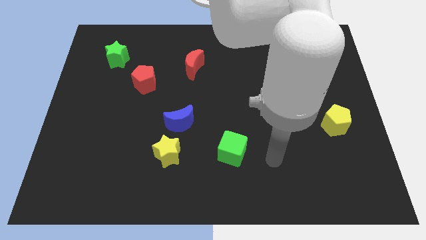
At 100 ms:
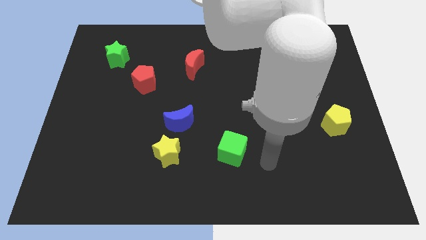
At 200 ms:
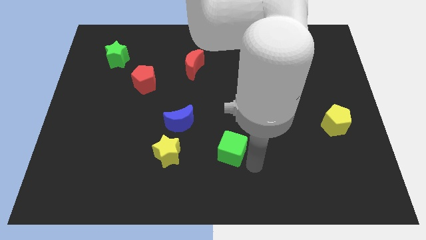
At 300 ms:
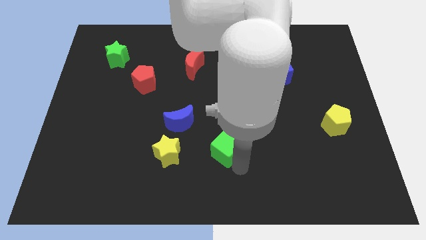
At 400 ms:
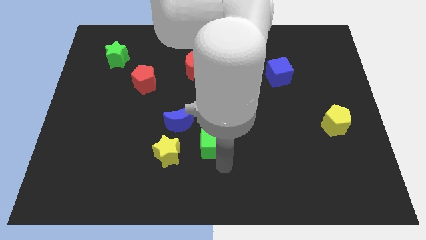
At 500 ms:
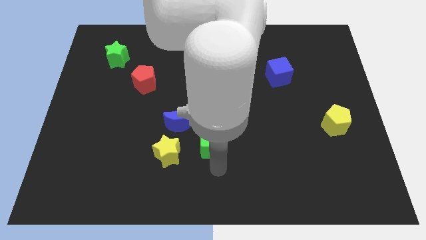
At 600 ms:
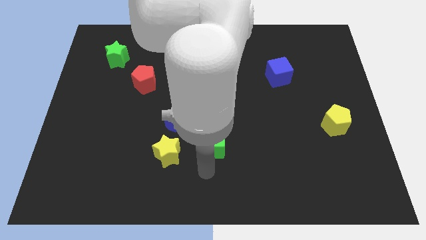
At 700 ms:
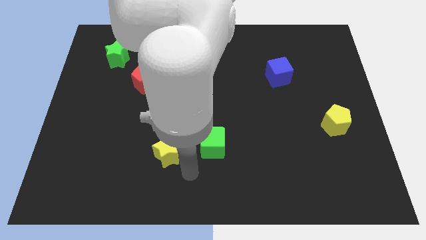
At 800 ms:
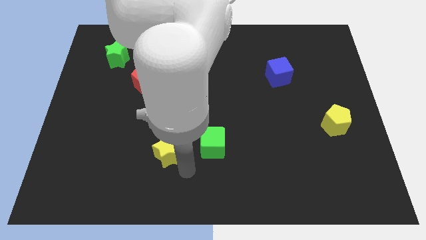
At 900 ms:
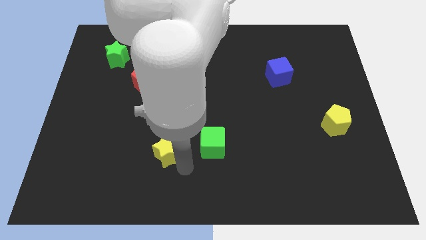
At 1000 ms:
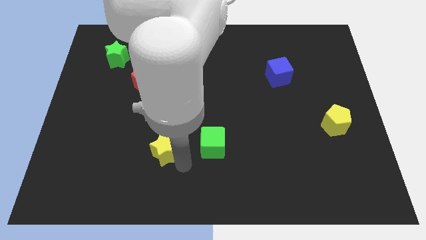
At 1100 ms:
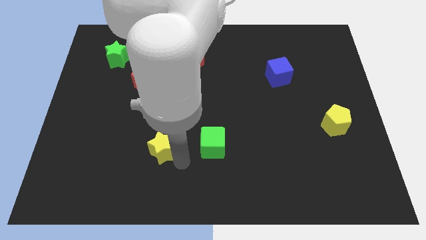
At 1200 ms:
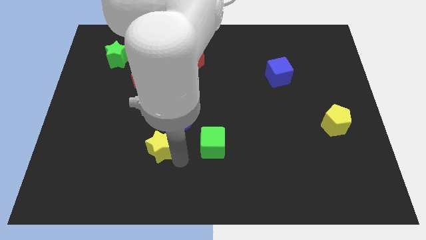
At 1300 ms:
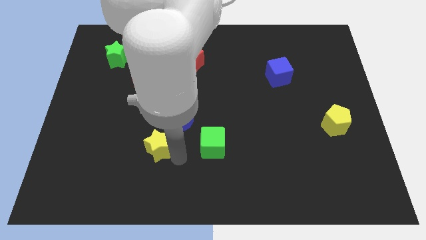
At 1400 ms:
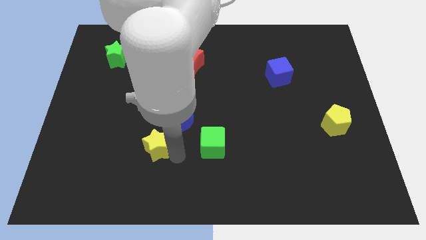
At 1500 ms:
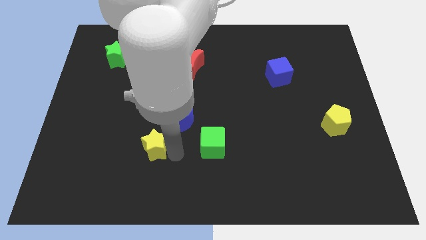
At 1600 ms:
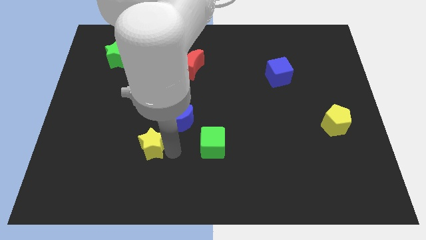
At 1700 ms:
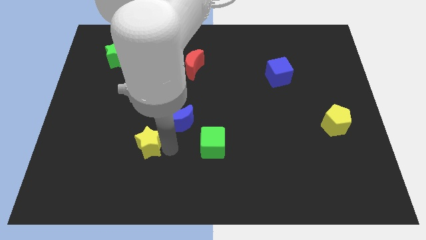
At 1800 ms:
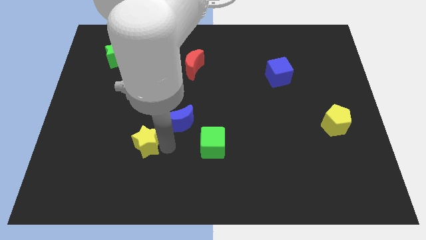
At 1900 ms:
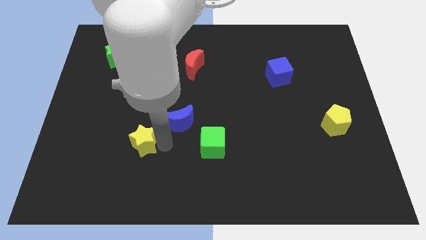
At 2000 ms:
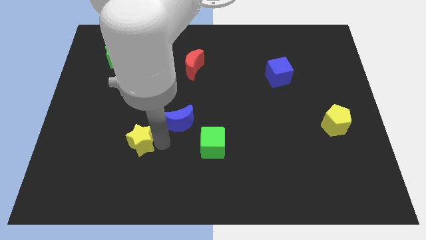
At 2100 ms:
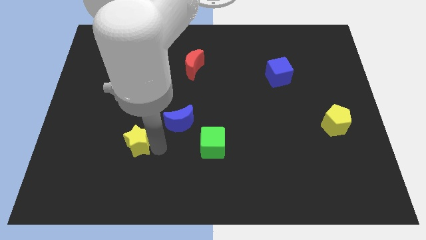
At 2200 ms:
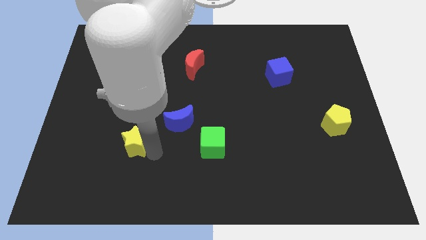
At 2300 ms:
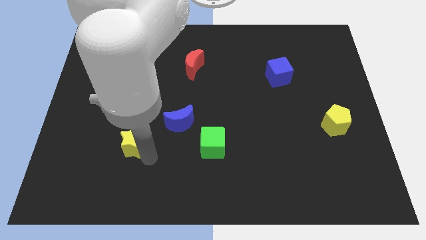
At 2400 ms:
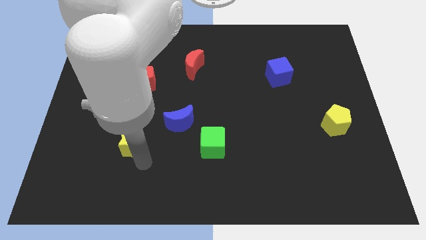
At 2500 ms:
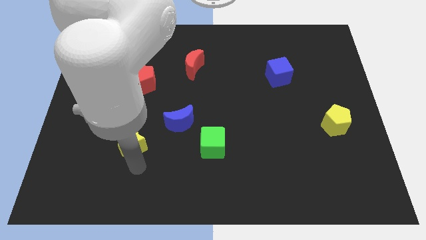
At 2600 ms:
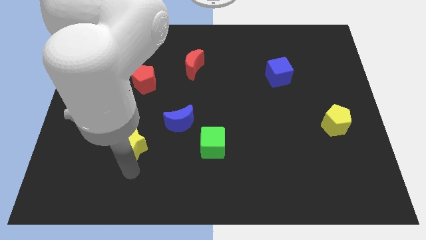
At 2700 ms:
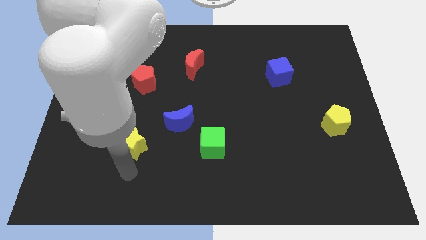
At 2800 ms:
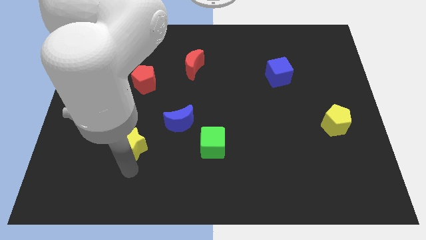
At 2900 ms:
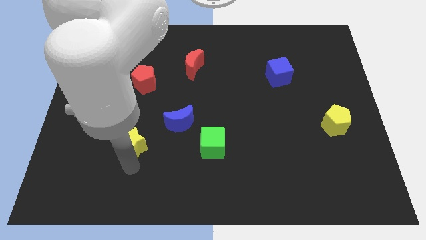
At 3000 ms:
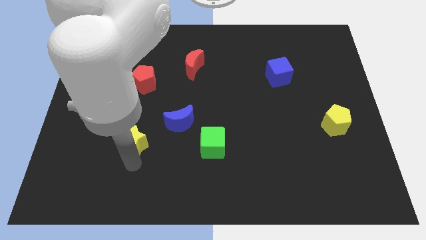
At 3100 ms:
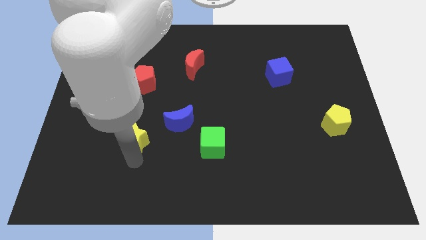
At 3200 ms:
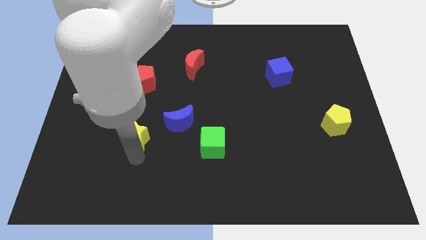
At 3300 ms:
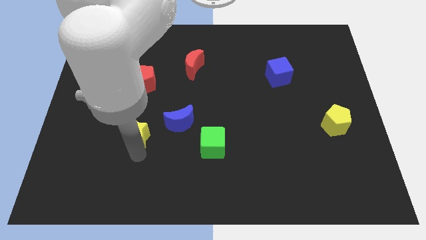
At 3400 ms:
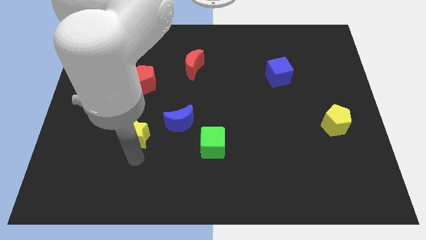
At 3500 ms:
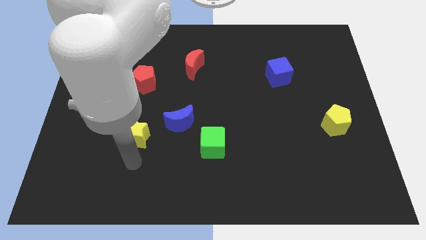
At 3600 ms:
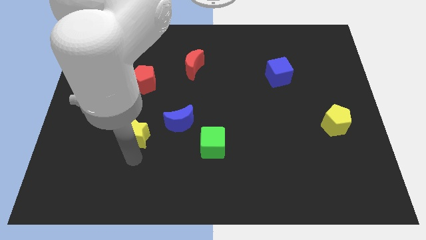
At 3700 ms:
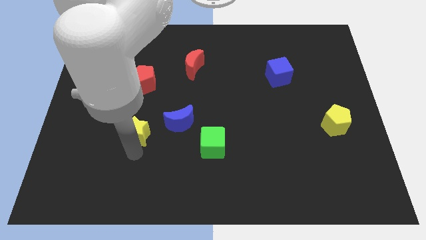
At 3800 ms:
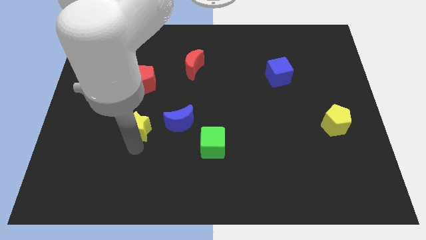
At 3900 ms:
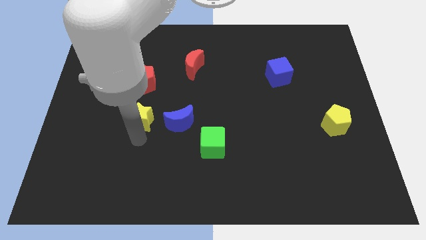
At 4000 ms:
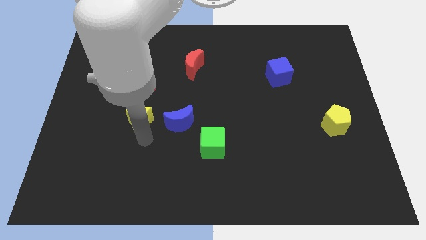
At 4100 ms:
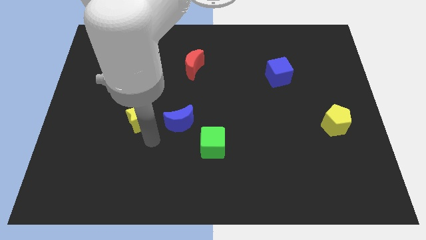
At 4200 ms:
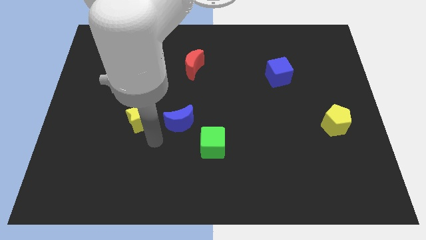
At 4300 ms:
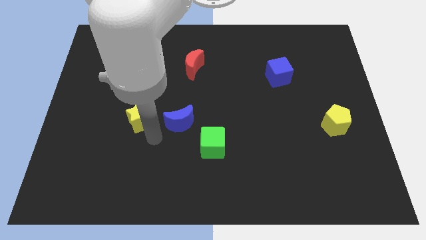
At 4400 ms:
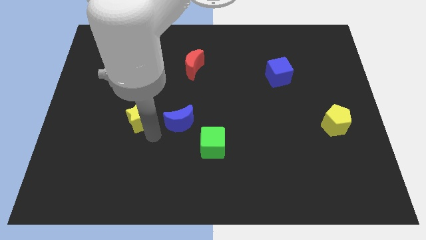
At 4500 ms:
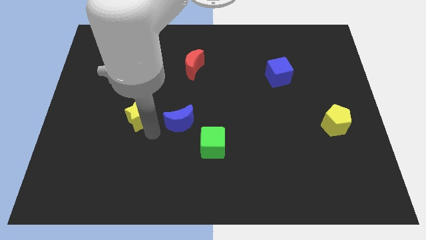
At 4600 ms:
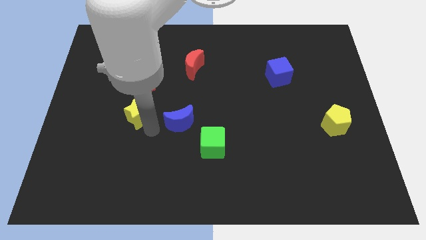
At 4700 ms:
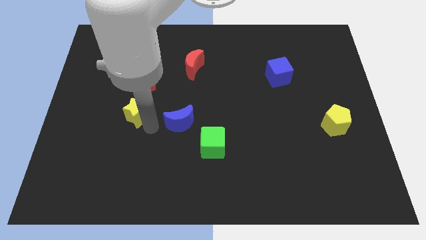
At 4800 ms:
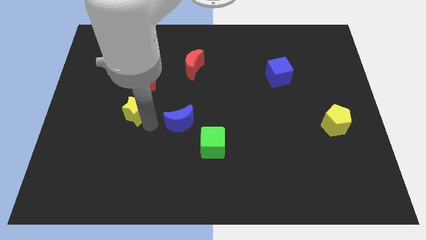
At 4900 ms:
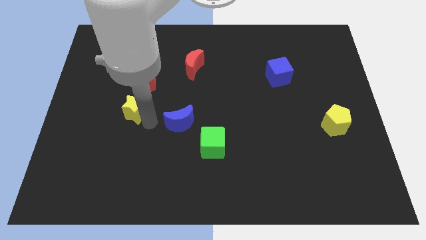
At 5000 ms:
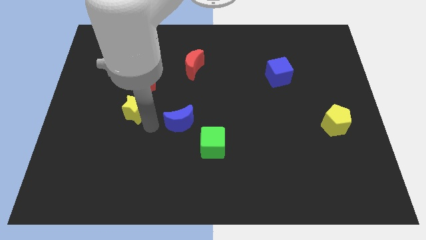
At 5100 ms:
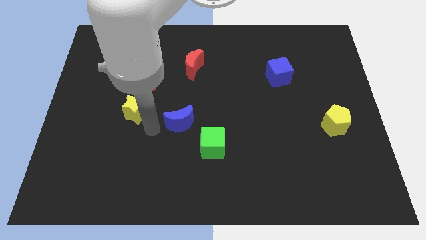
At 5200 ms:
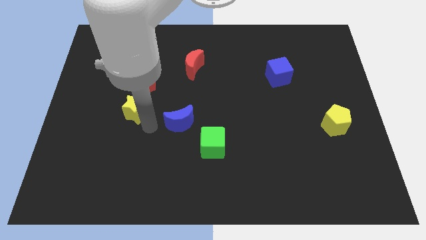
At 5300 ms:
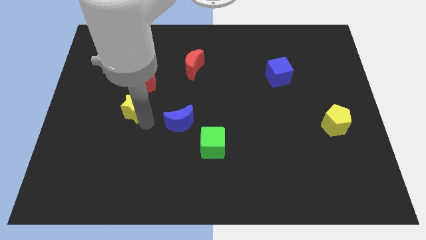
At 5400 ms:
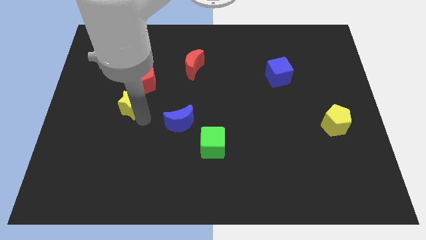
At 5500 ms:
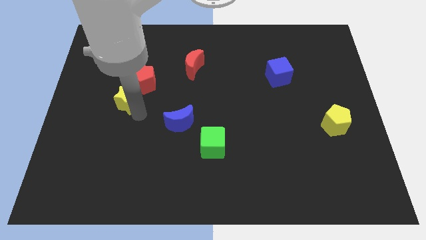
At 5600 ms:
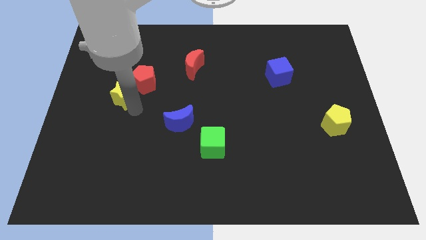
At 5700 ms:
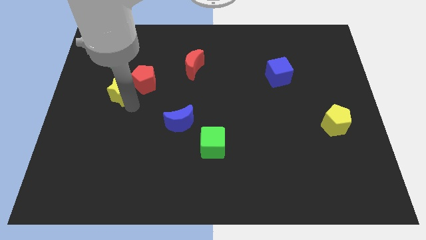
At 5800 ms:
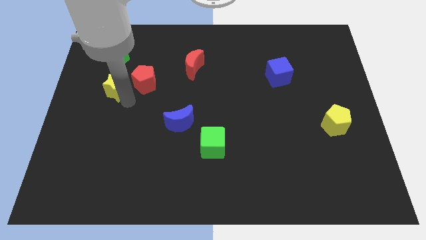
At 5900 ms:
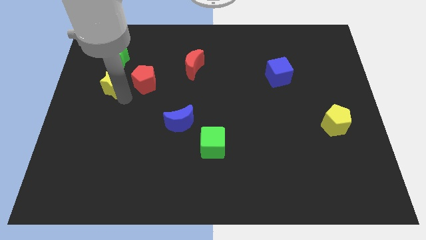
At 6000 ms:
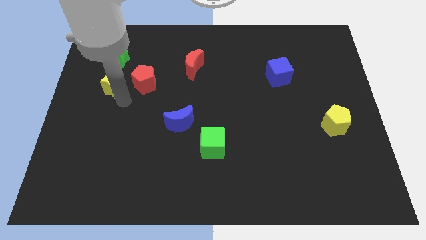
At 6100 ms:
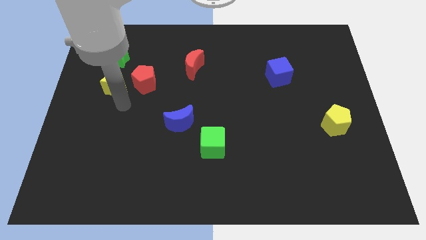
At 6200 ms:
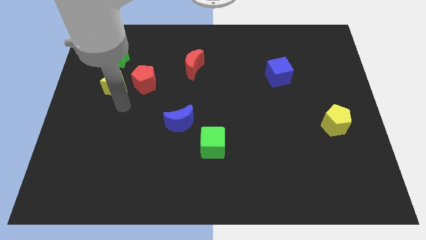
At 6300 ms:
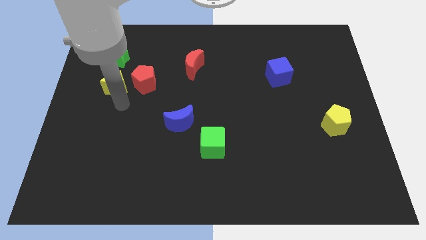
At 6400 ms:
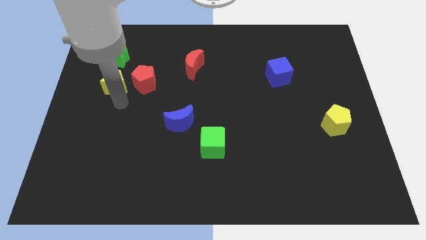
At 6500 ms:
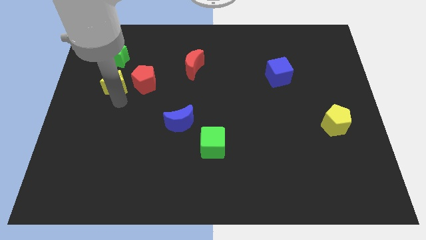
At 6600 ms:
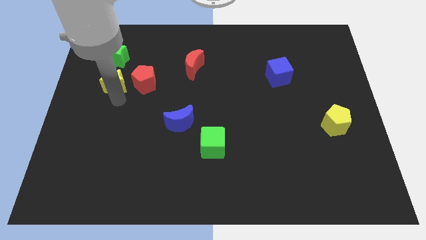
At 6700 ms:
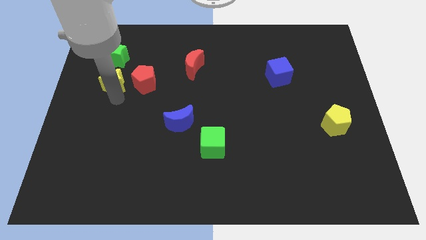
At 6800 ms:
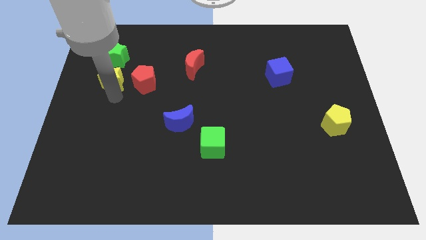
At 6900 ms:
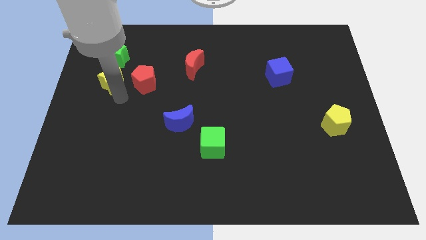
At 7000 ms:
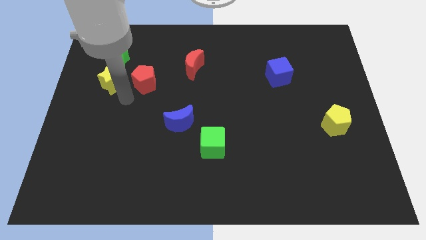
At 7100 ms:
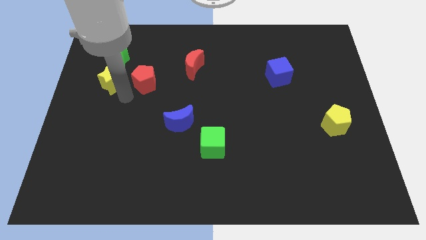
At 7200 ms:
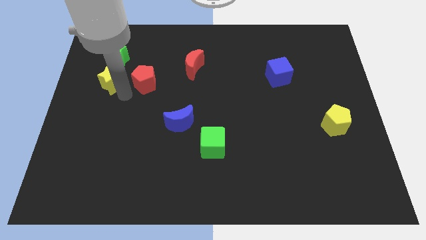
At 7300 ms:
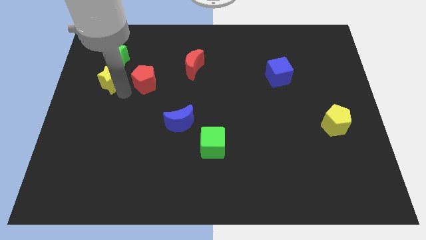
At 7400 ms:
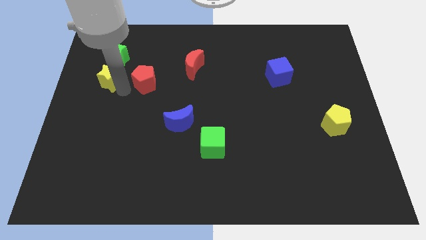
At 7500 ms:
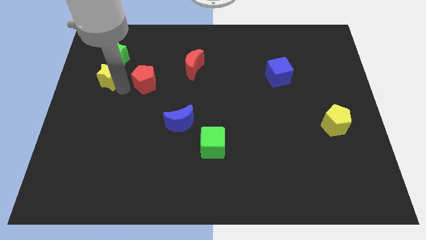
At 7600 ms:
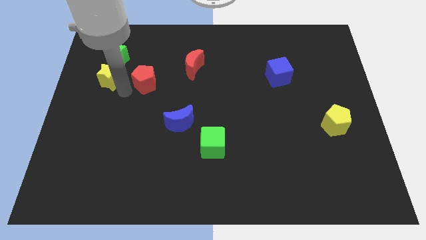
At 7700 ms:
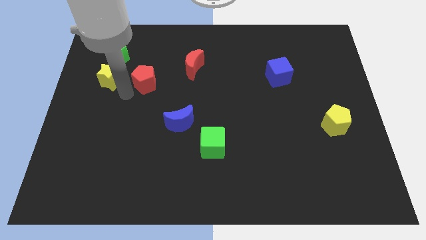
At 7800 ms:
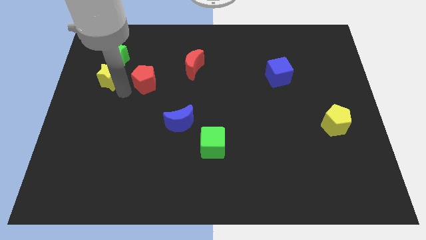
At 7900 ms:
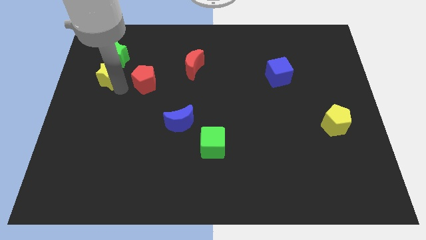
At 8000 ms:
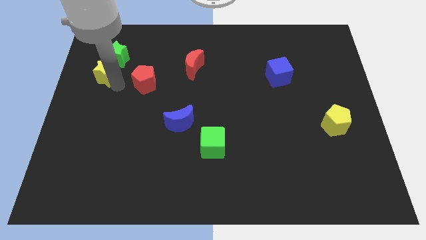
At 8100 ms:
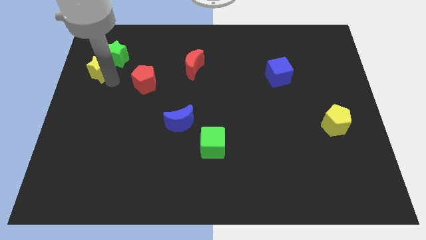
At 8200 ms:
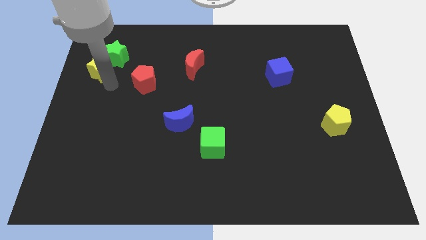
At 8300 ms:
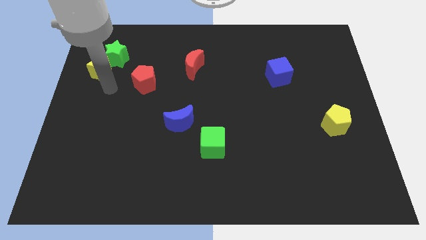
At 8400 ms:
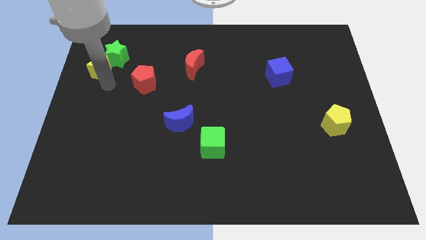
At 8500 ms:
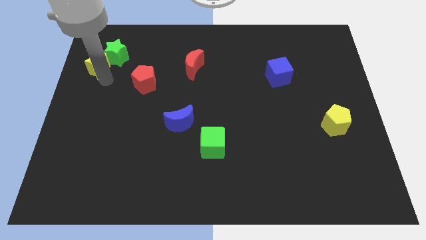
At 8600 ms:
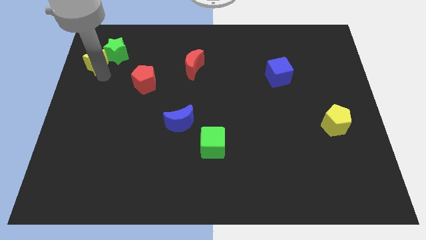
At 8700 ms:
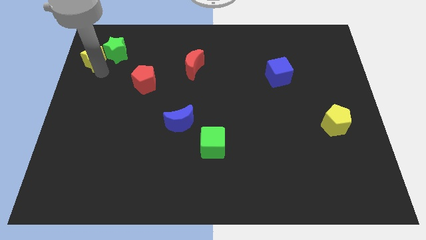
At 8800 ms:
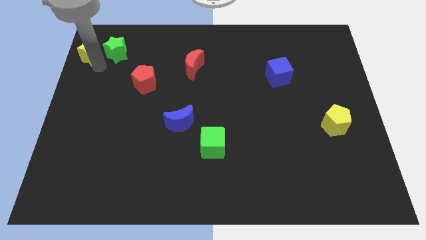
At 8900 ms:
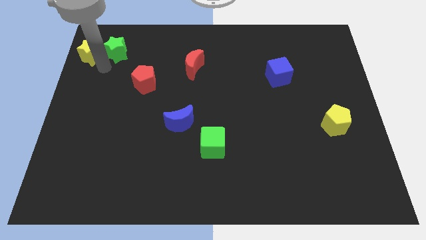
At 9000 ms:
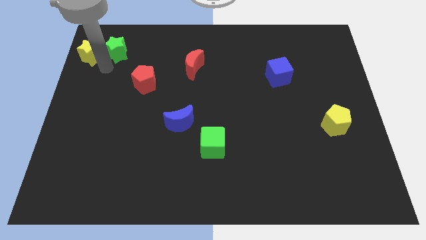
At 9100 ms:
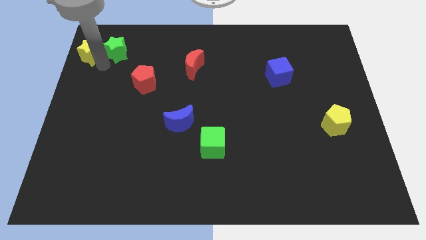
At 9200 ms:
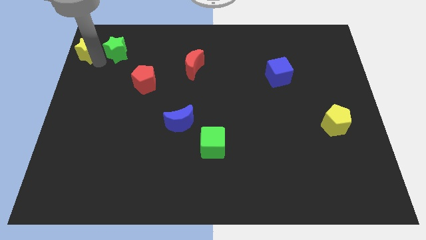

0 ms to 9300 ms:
push the yellow star to the top left corner
